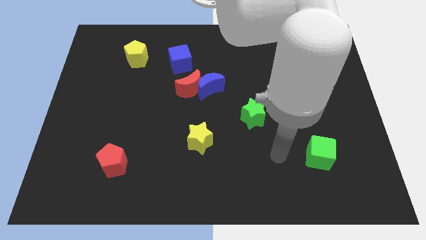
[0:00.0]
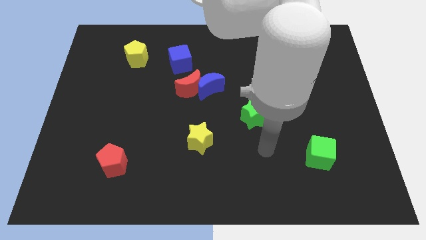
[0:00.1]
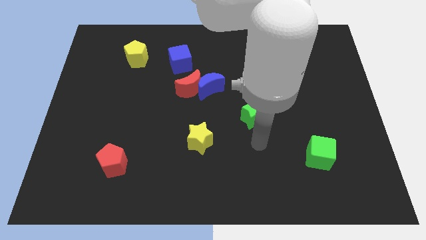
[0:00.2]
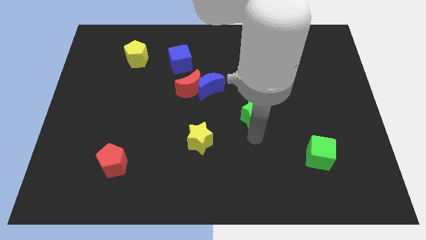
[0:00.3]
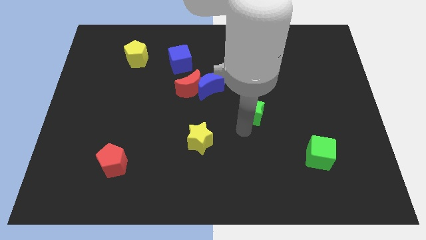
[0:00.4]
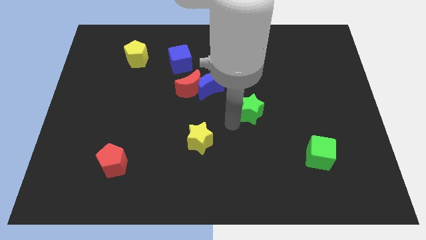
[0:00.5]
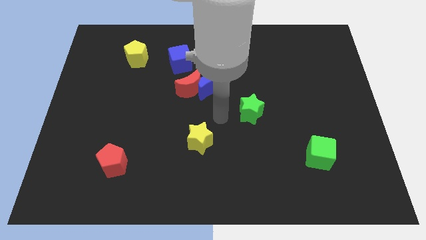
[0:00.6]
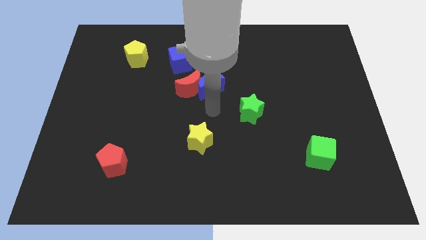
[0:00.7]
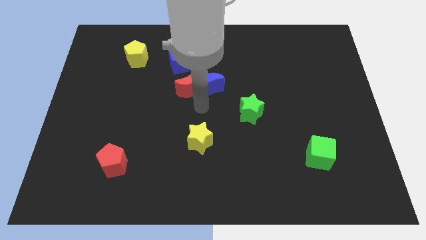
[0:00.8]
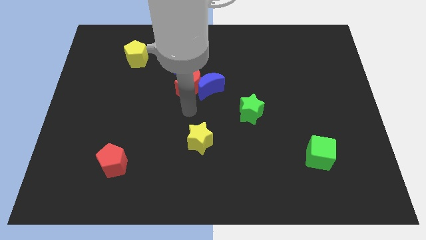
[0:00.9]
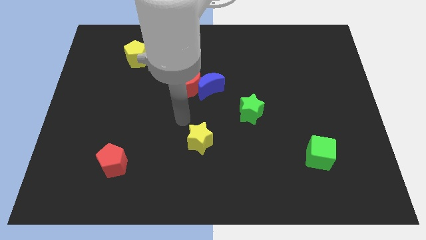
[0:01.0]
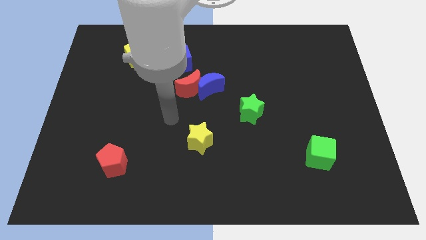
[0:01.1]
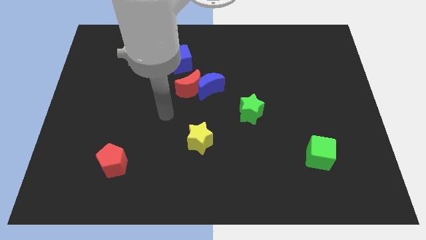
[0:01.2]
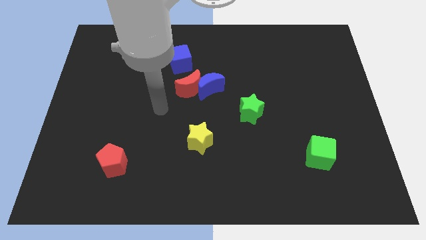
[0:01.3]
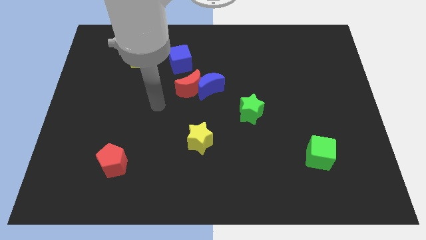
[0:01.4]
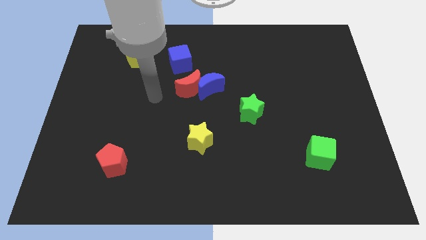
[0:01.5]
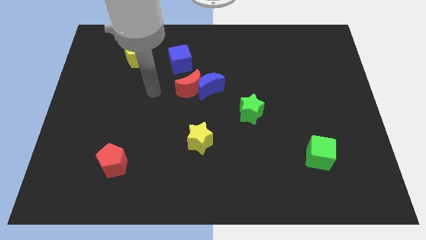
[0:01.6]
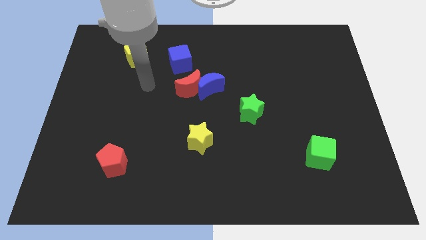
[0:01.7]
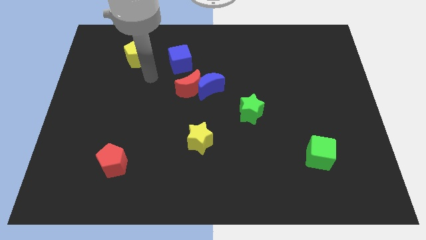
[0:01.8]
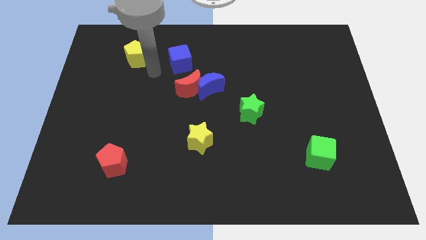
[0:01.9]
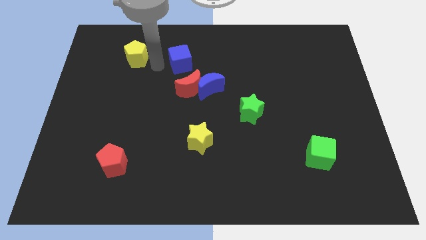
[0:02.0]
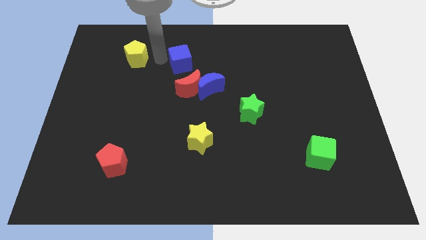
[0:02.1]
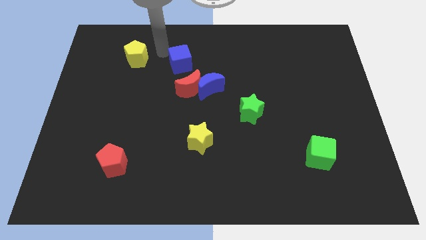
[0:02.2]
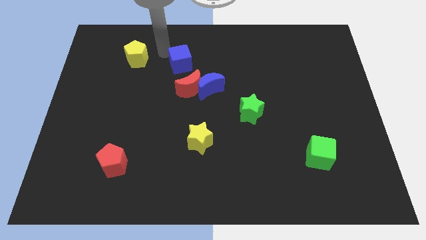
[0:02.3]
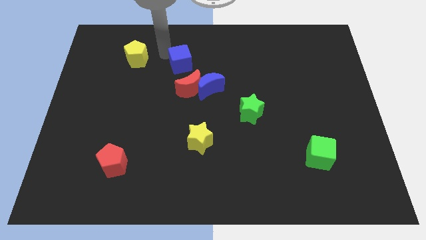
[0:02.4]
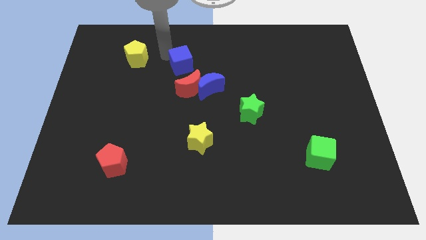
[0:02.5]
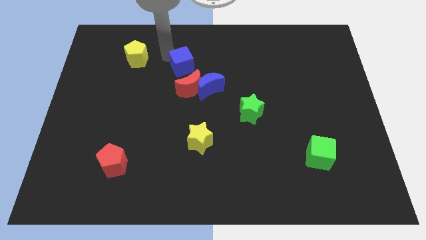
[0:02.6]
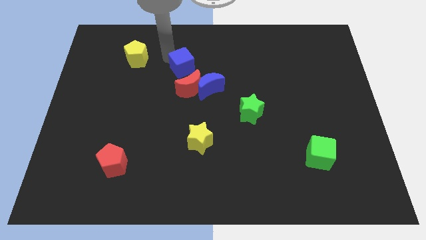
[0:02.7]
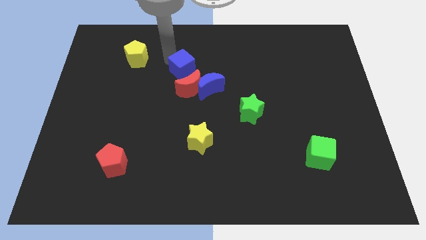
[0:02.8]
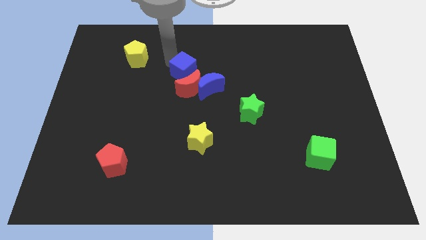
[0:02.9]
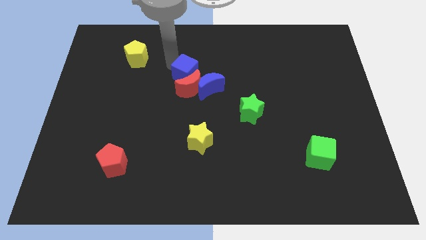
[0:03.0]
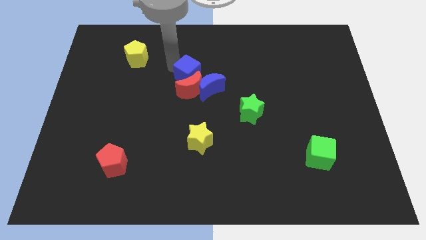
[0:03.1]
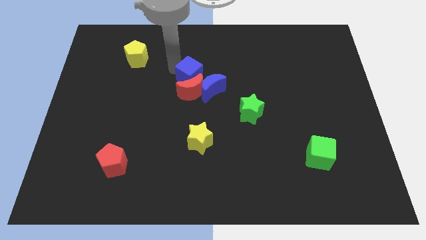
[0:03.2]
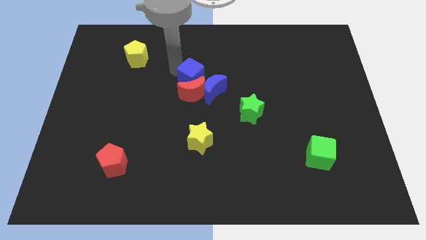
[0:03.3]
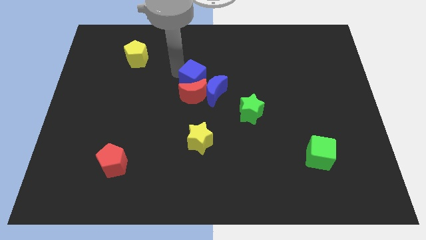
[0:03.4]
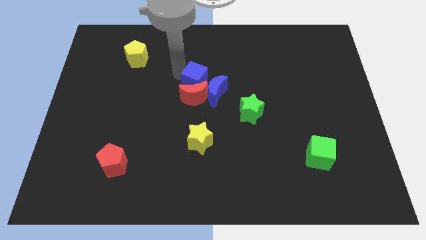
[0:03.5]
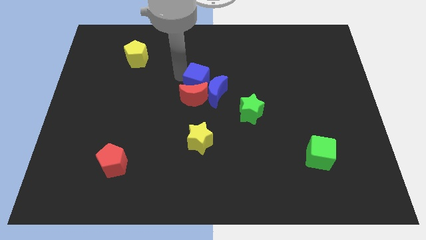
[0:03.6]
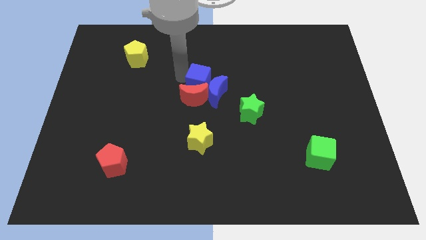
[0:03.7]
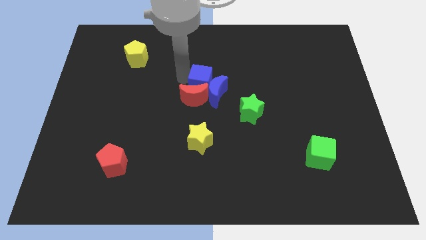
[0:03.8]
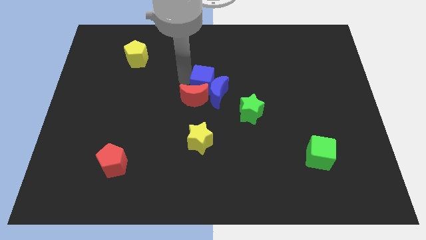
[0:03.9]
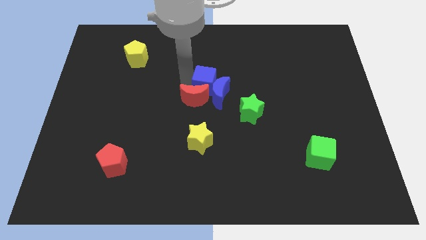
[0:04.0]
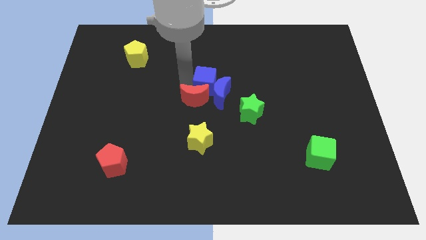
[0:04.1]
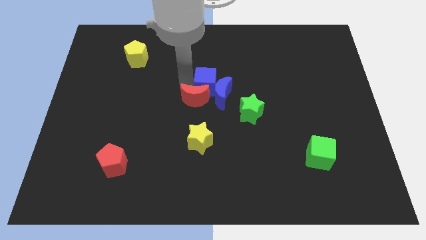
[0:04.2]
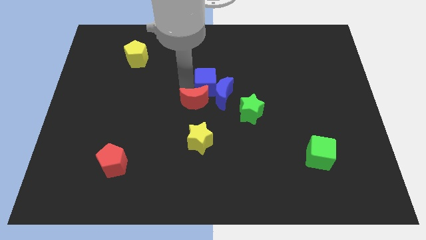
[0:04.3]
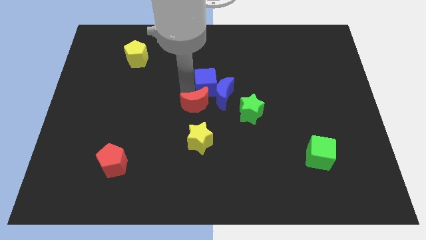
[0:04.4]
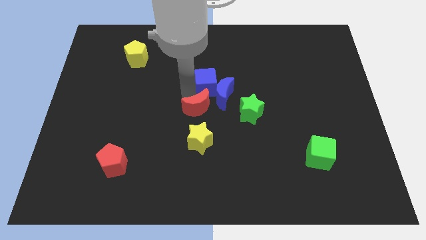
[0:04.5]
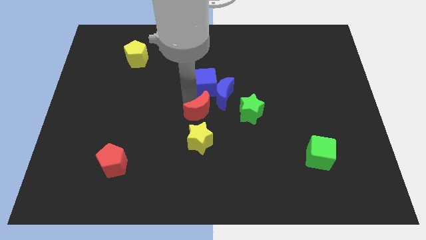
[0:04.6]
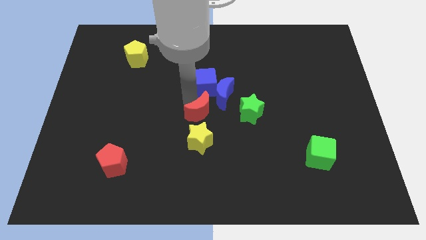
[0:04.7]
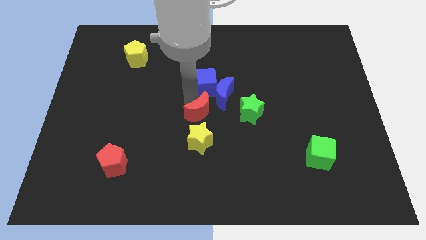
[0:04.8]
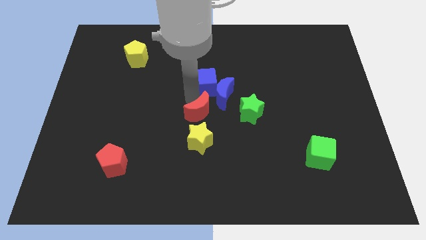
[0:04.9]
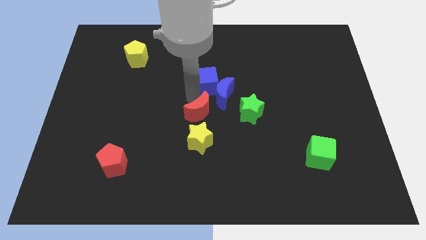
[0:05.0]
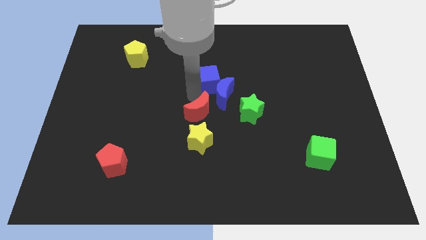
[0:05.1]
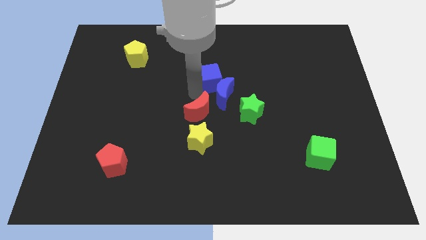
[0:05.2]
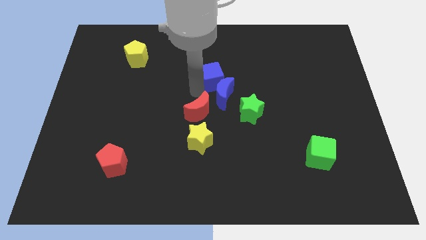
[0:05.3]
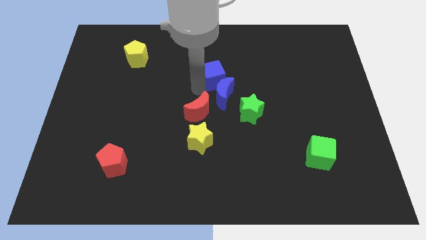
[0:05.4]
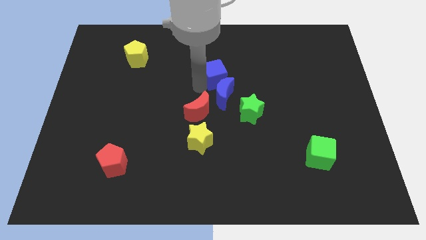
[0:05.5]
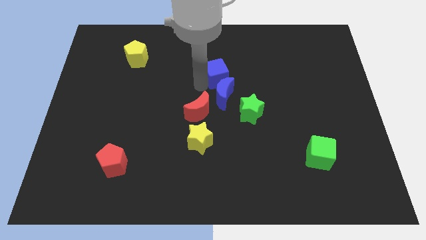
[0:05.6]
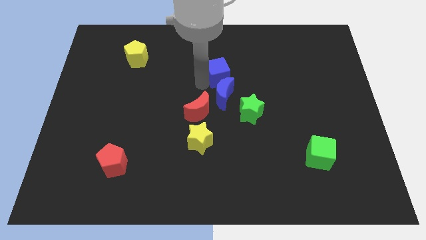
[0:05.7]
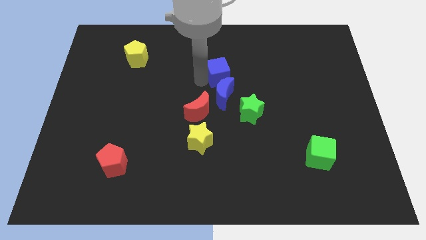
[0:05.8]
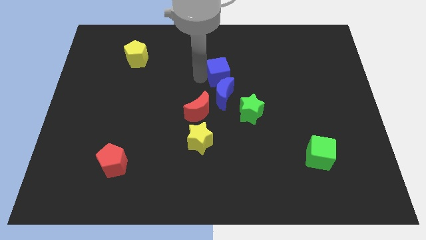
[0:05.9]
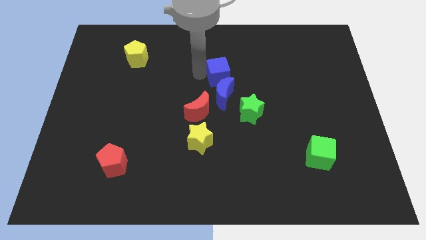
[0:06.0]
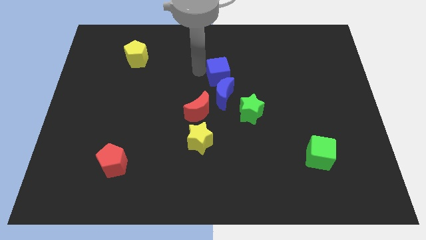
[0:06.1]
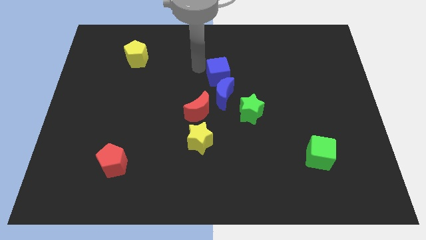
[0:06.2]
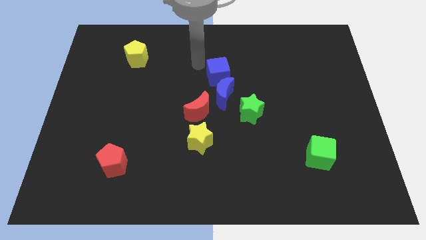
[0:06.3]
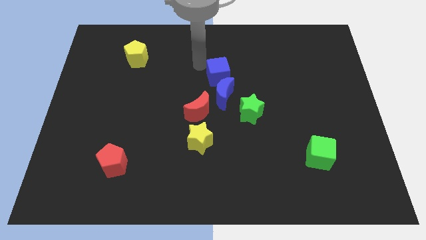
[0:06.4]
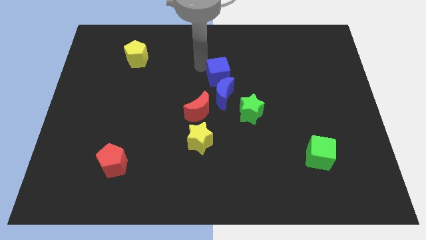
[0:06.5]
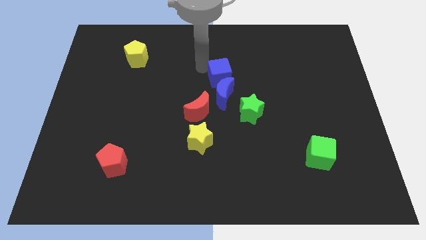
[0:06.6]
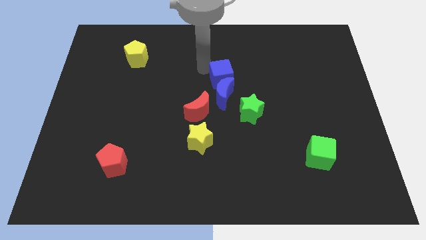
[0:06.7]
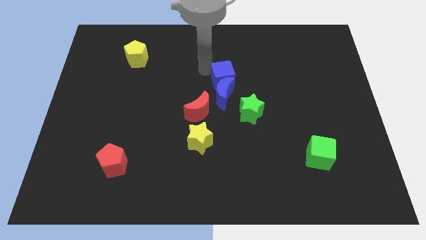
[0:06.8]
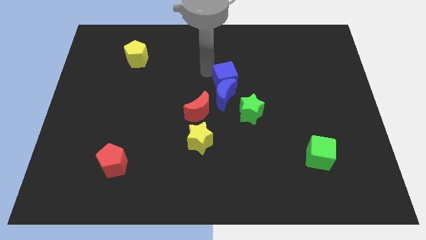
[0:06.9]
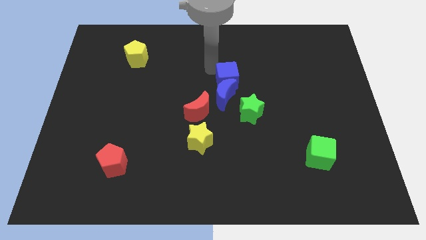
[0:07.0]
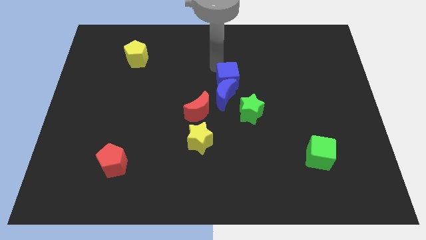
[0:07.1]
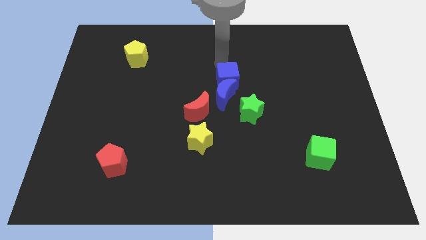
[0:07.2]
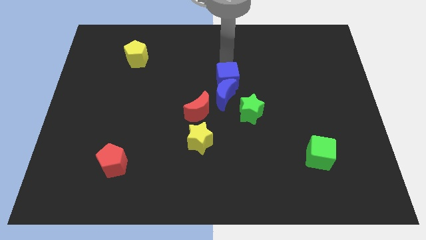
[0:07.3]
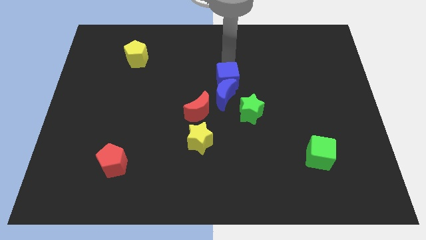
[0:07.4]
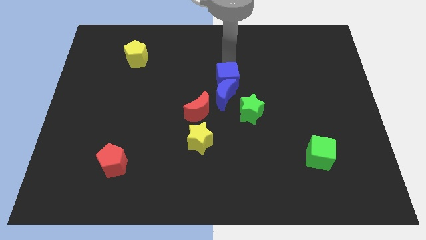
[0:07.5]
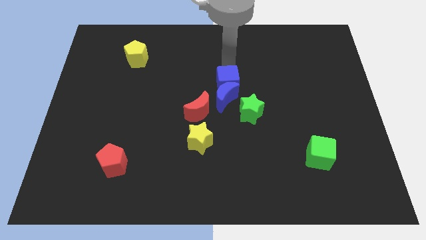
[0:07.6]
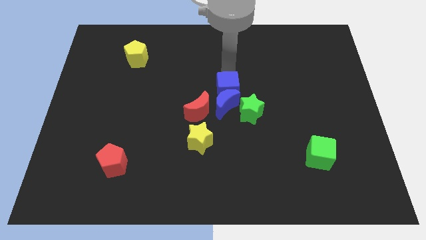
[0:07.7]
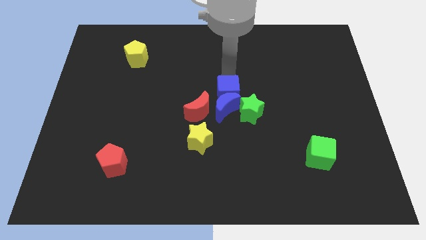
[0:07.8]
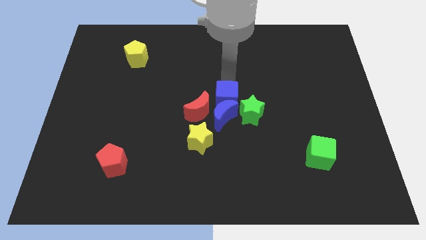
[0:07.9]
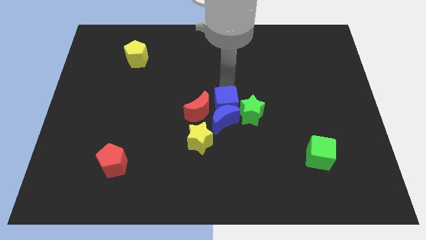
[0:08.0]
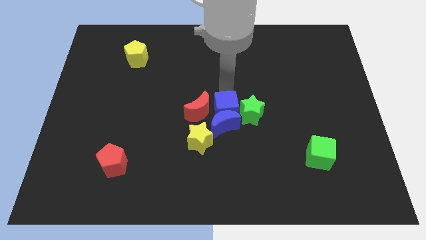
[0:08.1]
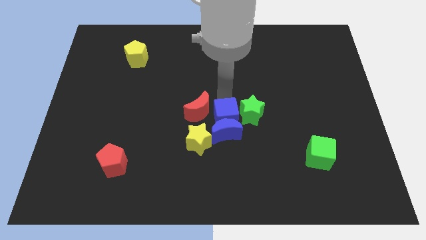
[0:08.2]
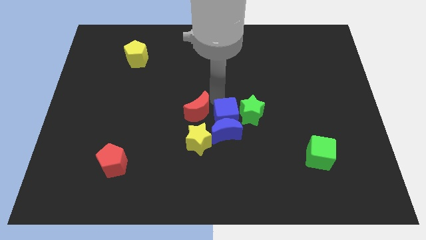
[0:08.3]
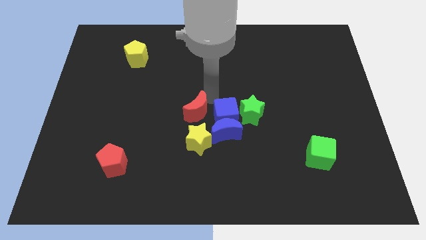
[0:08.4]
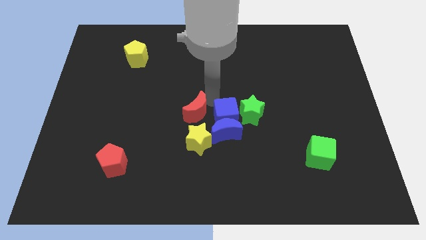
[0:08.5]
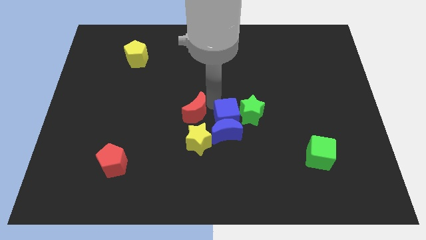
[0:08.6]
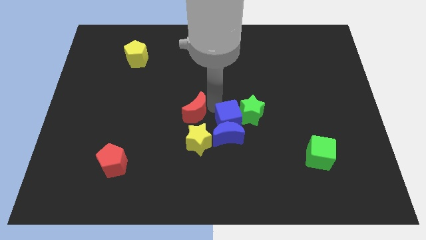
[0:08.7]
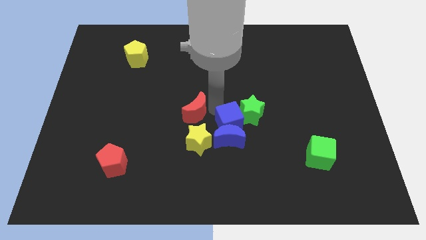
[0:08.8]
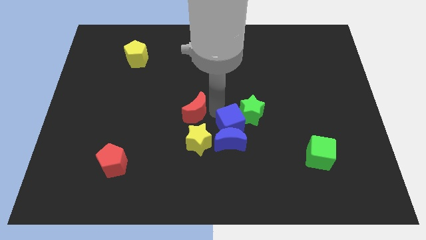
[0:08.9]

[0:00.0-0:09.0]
slide the blue cube to the right side of the yellow star
